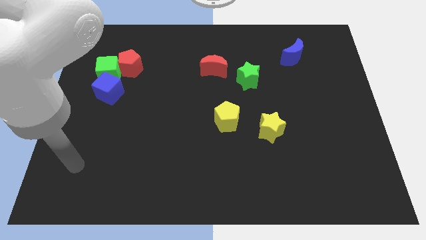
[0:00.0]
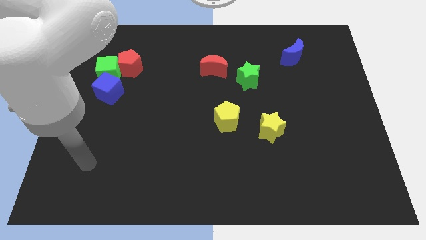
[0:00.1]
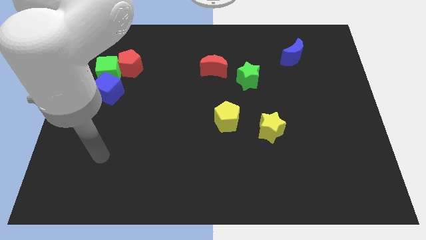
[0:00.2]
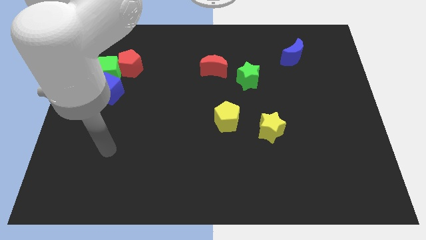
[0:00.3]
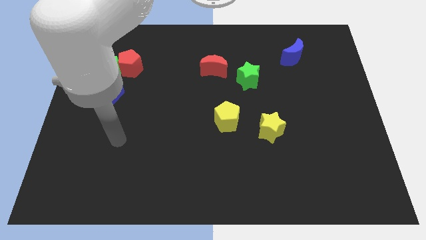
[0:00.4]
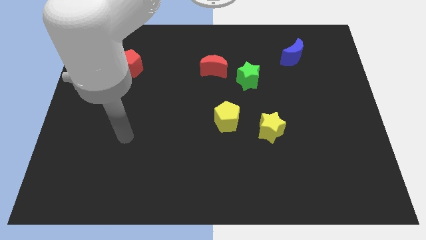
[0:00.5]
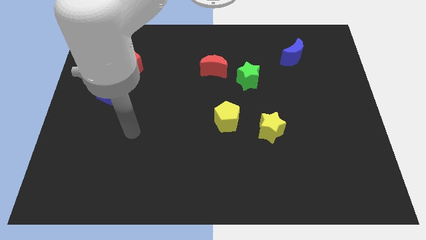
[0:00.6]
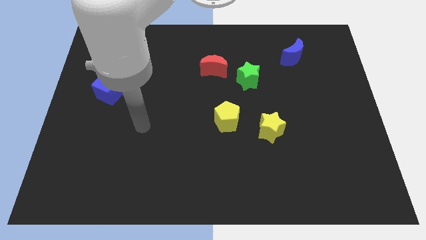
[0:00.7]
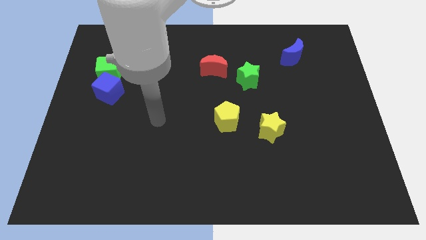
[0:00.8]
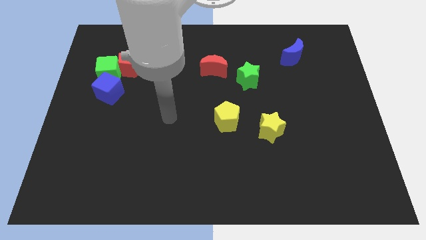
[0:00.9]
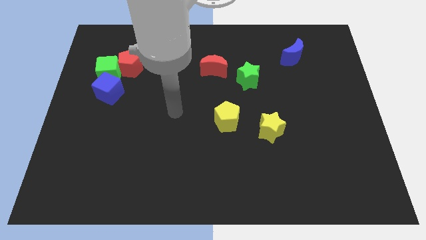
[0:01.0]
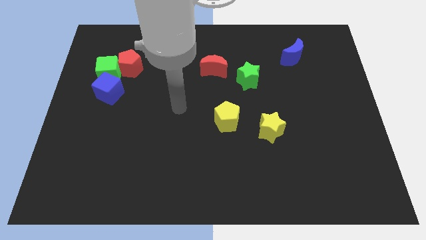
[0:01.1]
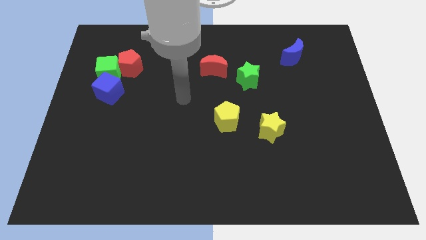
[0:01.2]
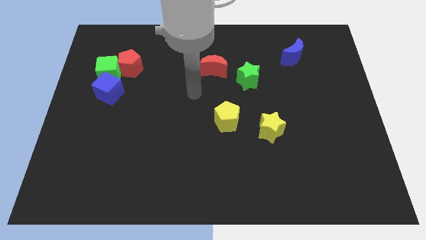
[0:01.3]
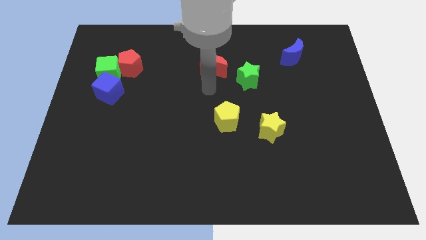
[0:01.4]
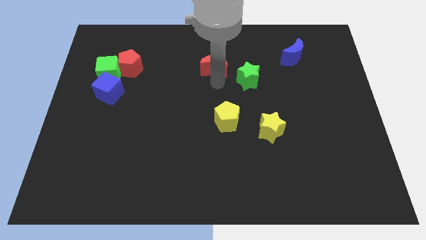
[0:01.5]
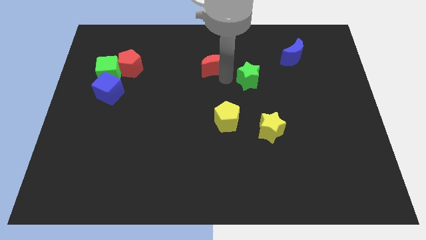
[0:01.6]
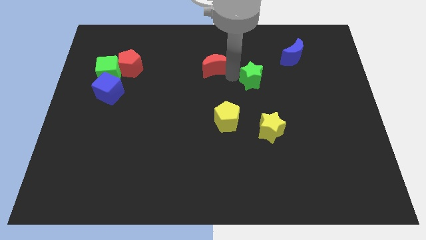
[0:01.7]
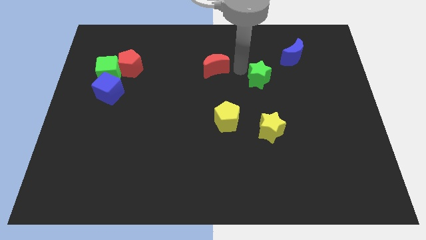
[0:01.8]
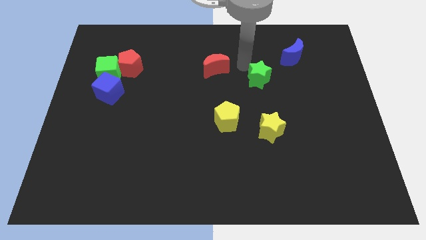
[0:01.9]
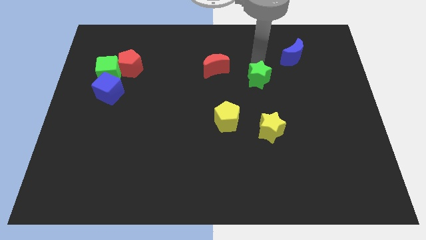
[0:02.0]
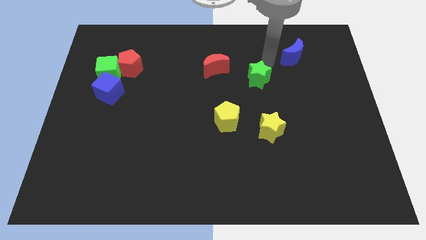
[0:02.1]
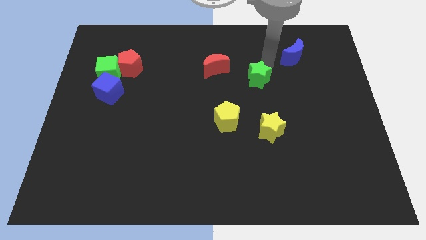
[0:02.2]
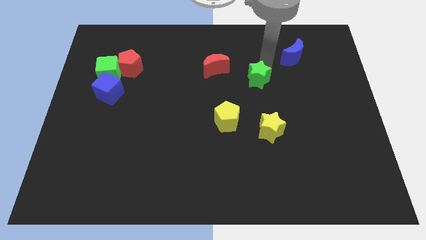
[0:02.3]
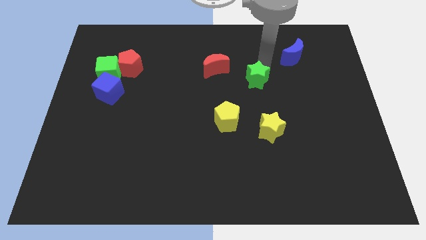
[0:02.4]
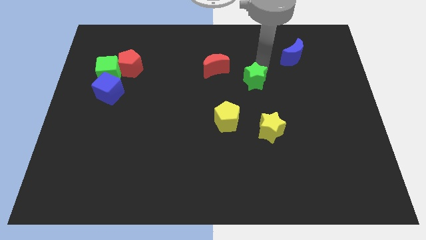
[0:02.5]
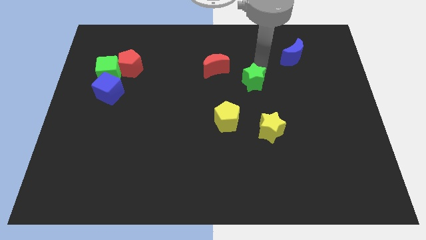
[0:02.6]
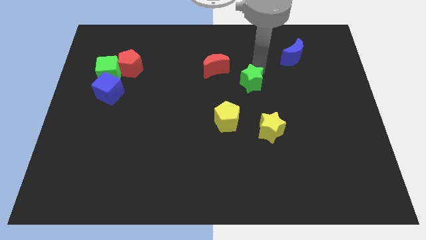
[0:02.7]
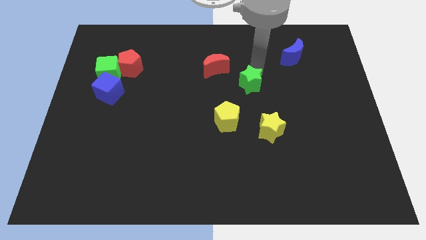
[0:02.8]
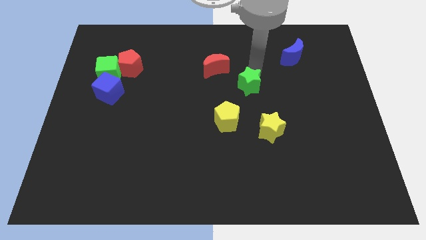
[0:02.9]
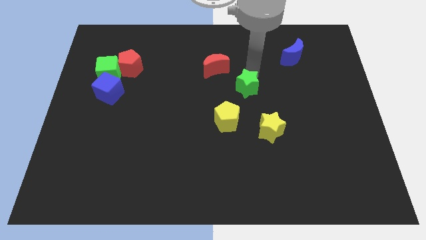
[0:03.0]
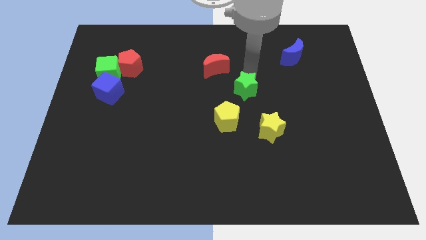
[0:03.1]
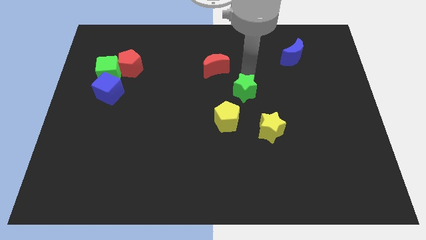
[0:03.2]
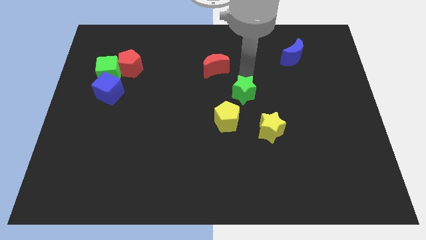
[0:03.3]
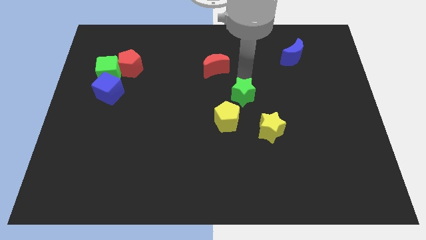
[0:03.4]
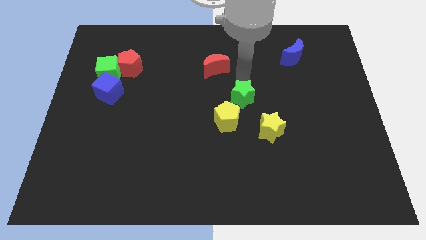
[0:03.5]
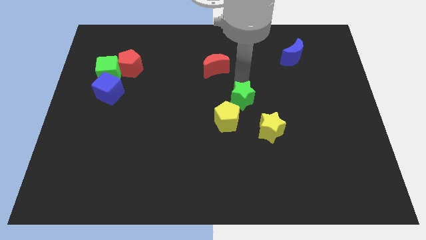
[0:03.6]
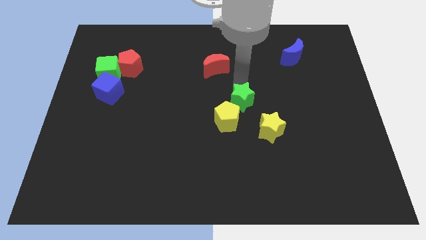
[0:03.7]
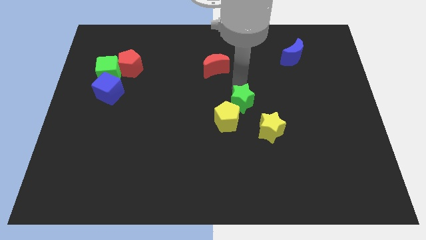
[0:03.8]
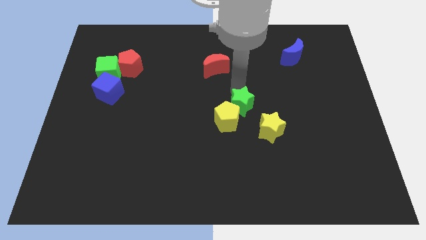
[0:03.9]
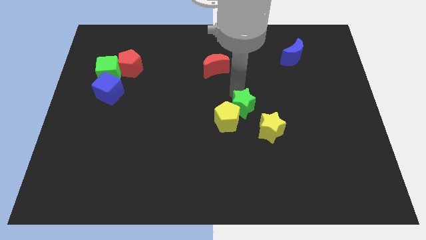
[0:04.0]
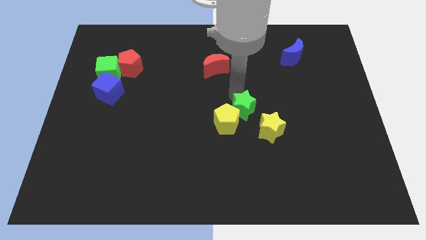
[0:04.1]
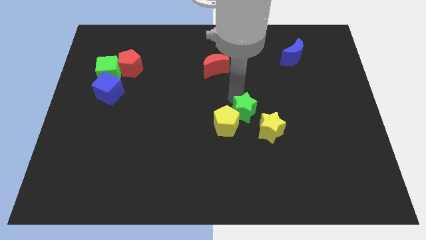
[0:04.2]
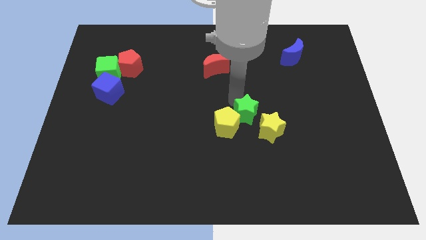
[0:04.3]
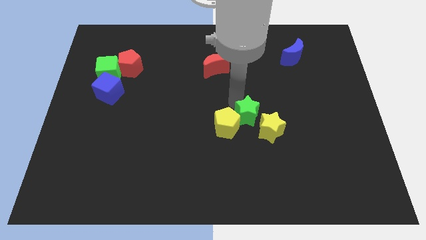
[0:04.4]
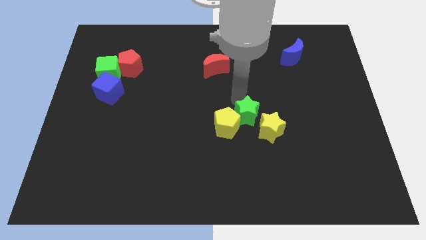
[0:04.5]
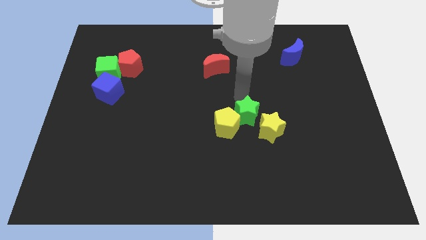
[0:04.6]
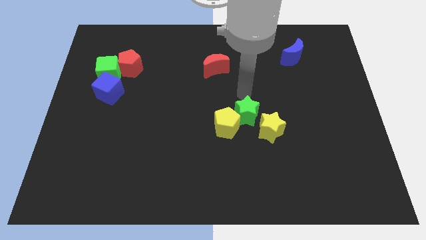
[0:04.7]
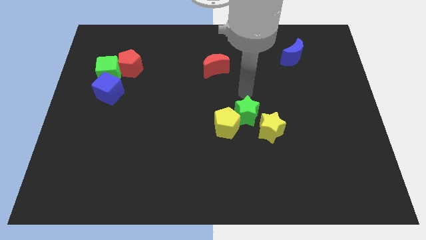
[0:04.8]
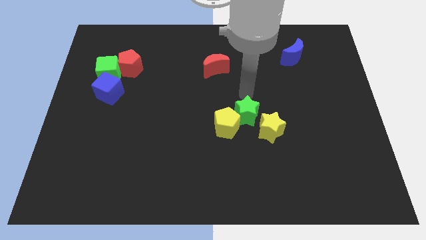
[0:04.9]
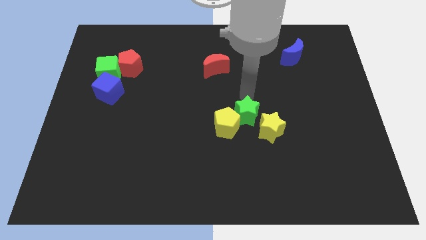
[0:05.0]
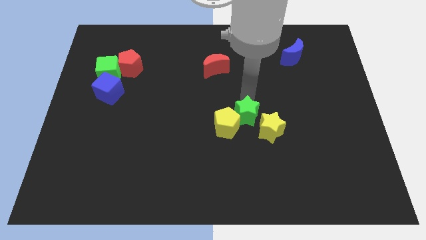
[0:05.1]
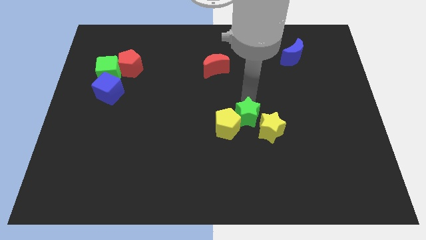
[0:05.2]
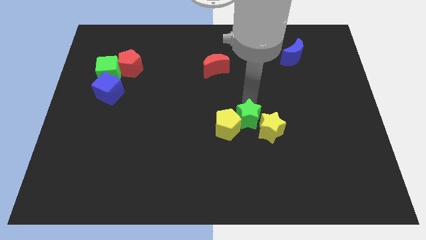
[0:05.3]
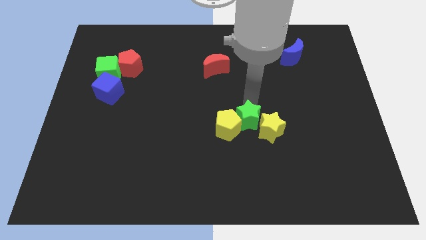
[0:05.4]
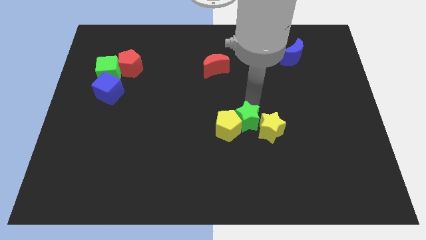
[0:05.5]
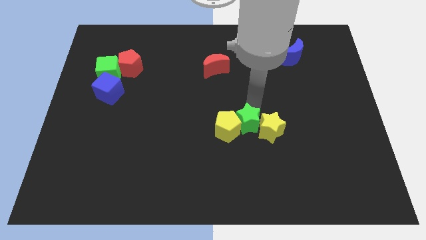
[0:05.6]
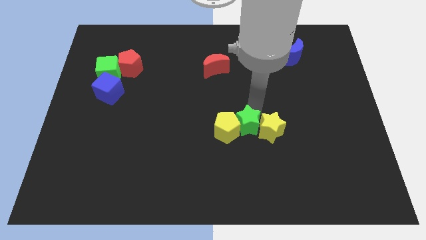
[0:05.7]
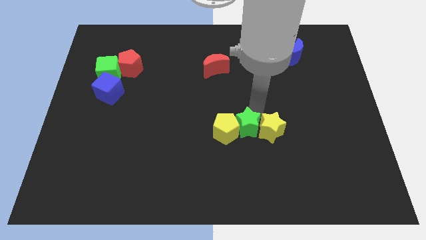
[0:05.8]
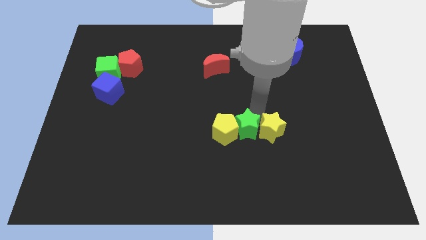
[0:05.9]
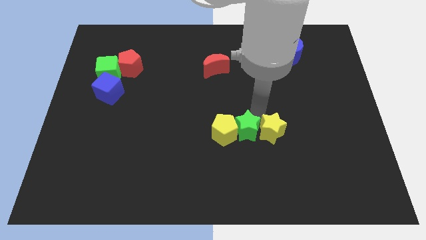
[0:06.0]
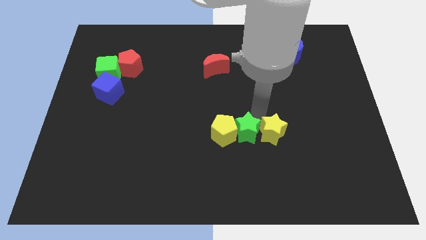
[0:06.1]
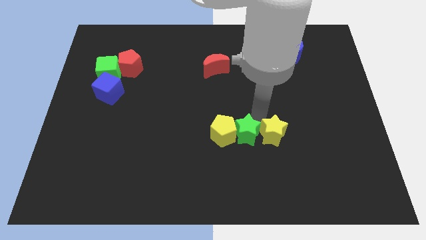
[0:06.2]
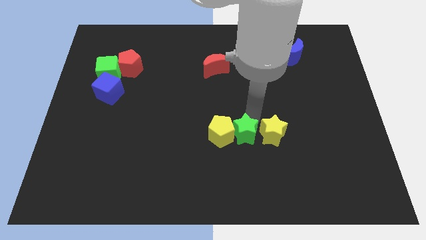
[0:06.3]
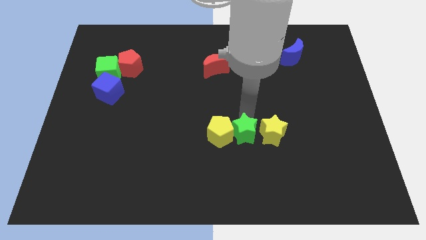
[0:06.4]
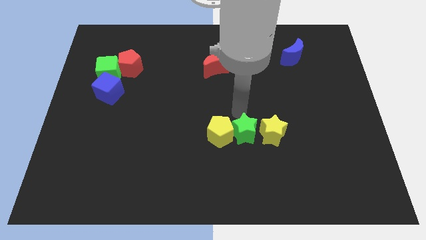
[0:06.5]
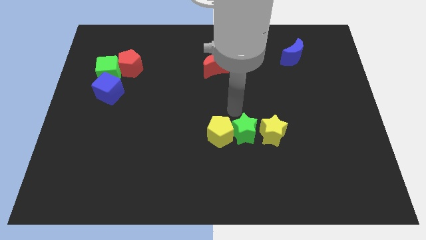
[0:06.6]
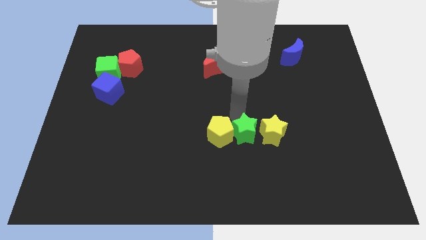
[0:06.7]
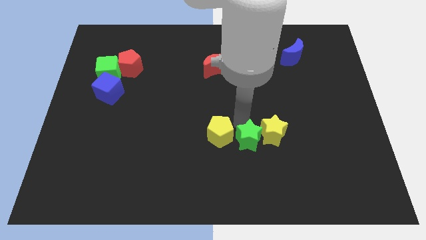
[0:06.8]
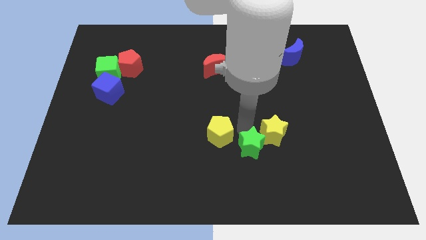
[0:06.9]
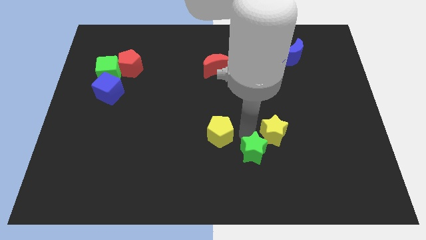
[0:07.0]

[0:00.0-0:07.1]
push the green star below the yellow star
